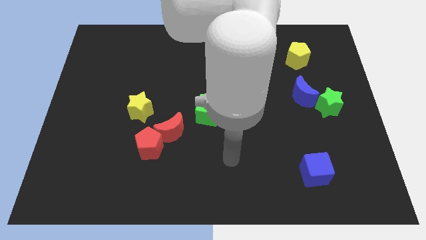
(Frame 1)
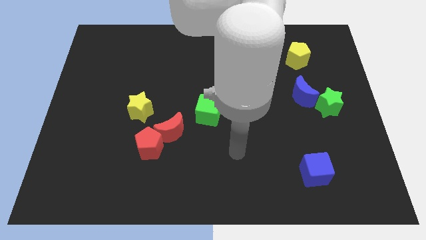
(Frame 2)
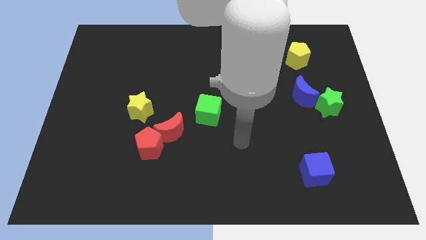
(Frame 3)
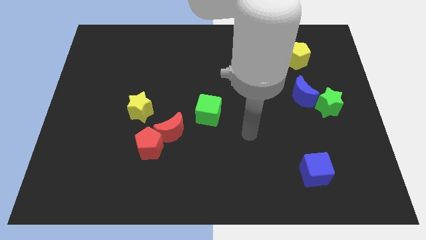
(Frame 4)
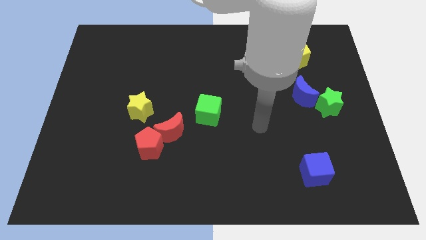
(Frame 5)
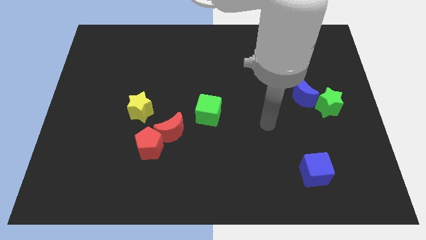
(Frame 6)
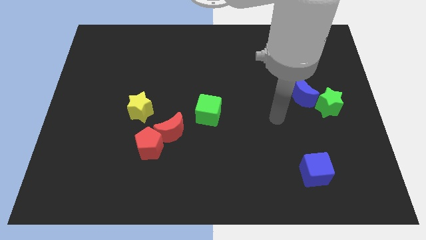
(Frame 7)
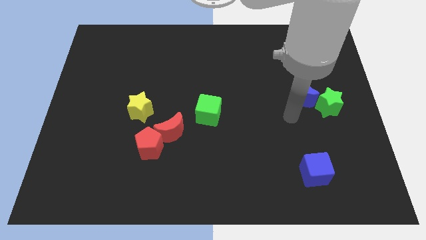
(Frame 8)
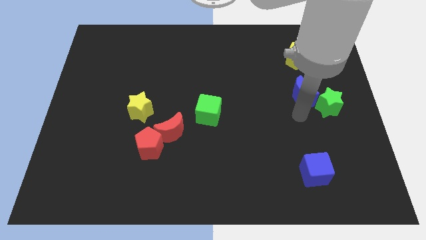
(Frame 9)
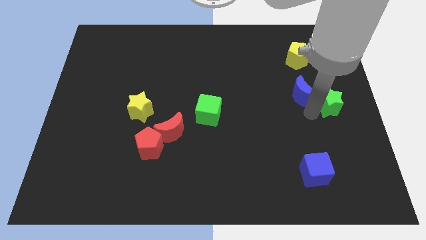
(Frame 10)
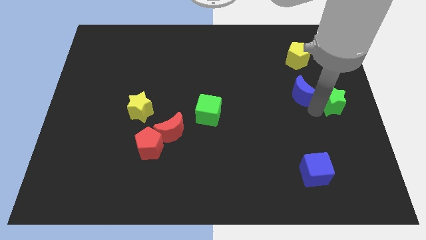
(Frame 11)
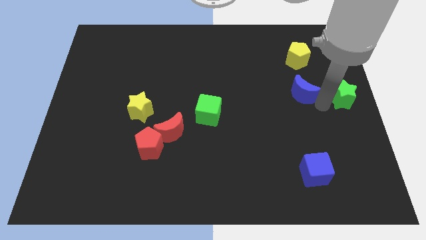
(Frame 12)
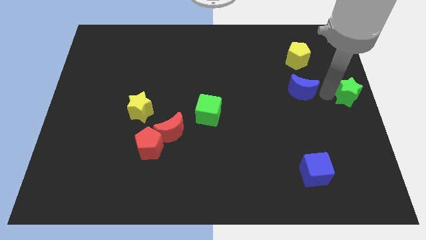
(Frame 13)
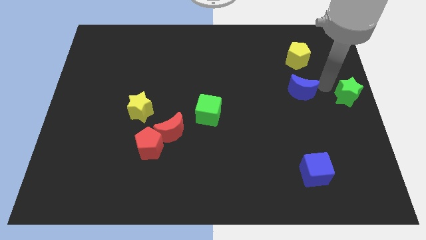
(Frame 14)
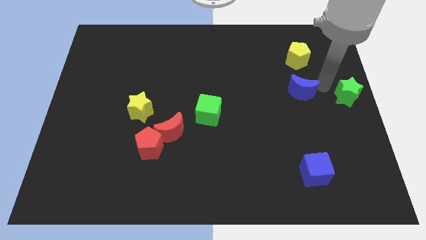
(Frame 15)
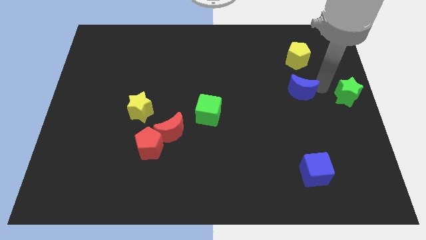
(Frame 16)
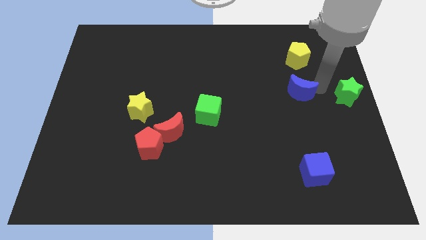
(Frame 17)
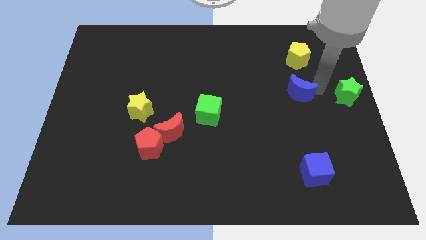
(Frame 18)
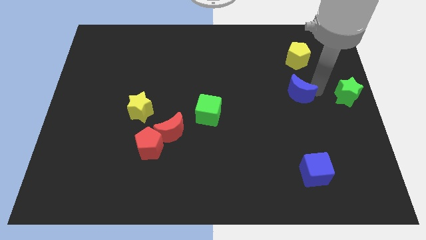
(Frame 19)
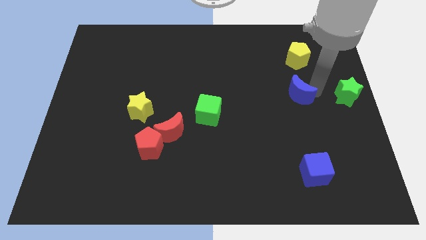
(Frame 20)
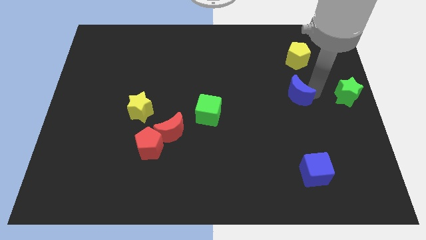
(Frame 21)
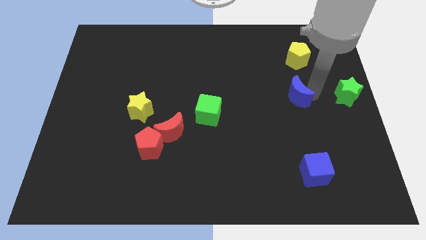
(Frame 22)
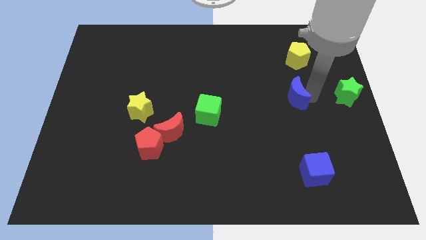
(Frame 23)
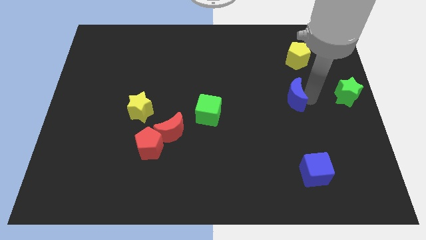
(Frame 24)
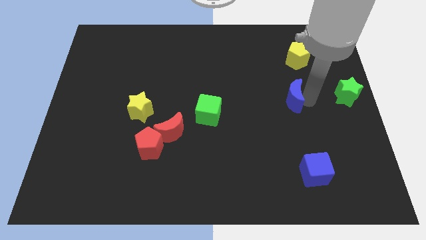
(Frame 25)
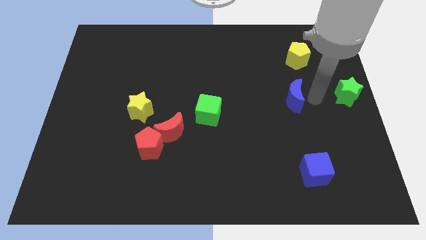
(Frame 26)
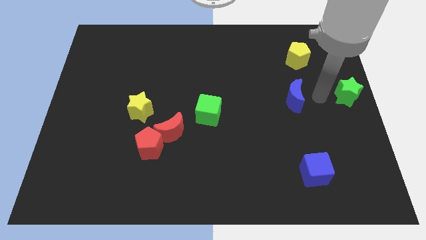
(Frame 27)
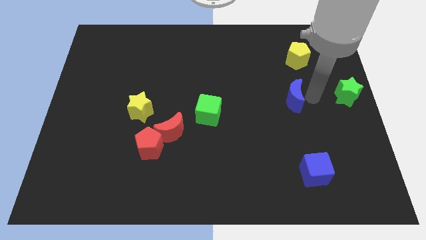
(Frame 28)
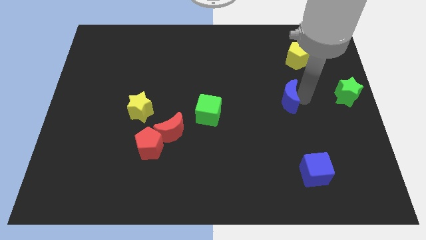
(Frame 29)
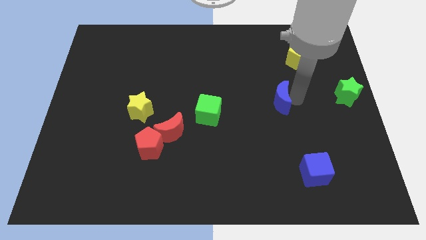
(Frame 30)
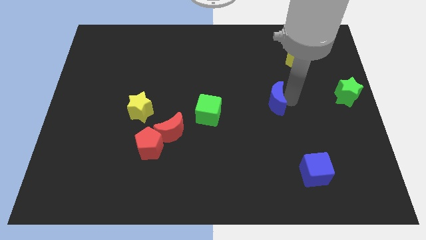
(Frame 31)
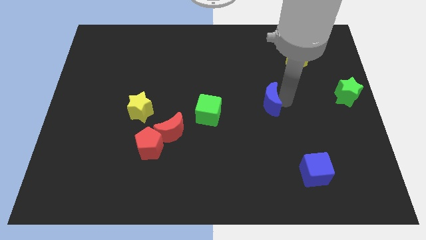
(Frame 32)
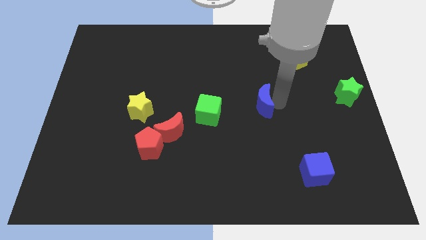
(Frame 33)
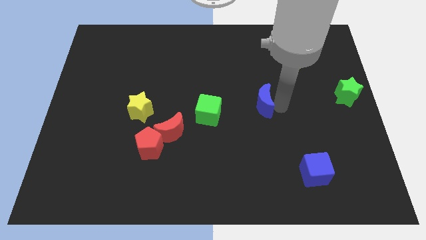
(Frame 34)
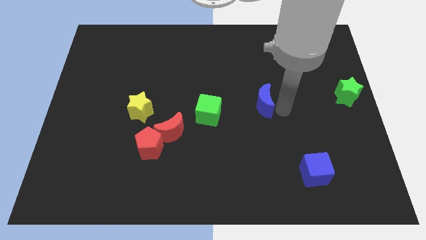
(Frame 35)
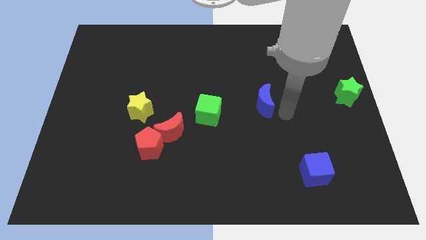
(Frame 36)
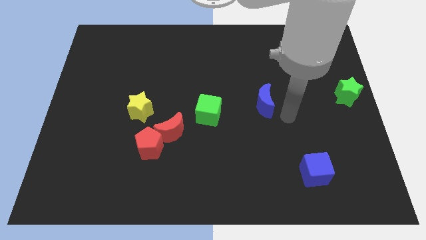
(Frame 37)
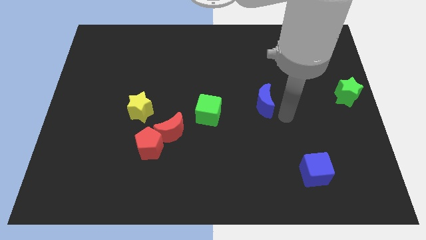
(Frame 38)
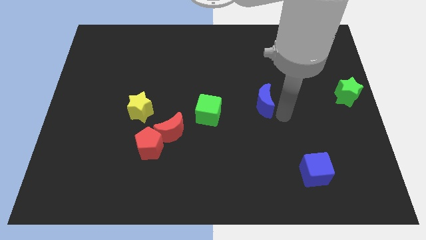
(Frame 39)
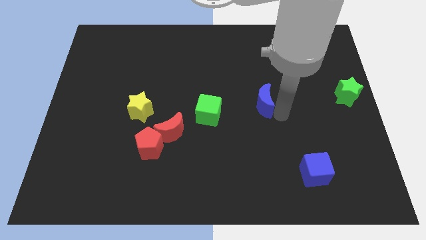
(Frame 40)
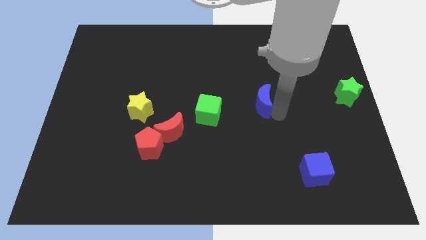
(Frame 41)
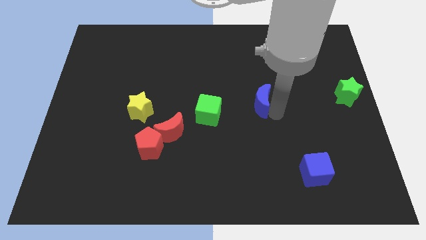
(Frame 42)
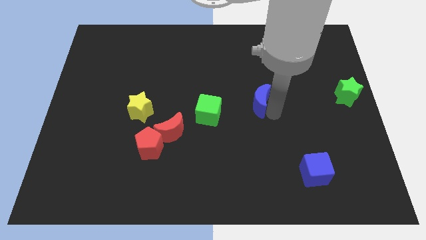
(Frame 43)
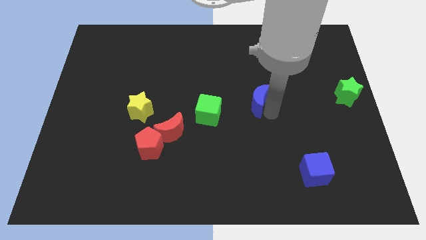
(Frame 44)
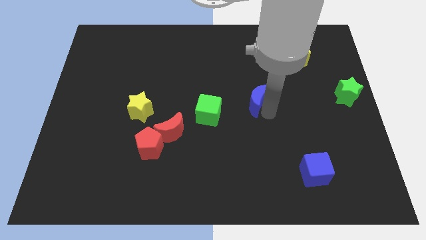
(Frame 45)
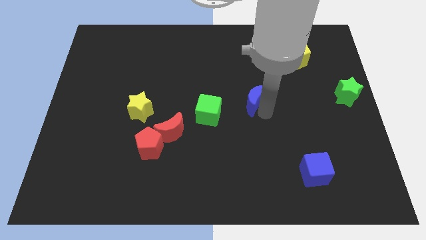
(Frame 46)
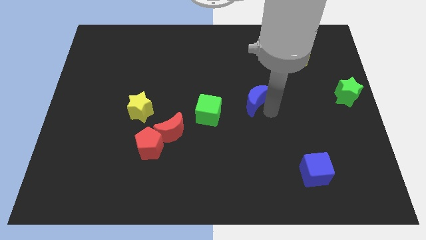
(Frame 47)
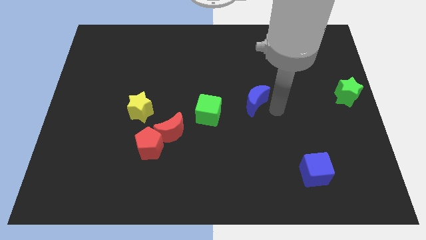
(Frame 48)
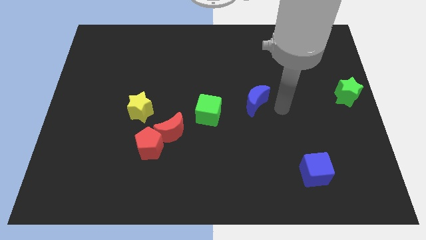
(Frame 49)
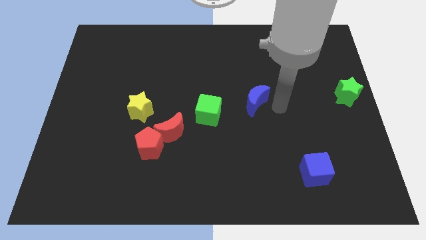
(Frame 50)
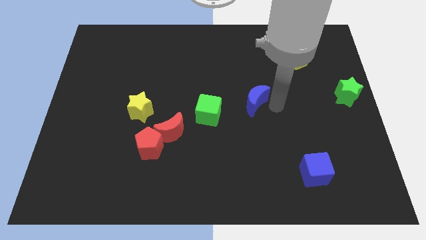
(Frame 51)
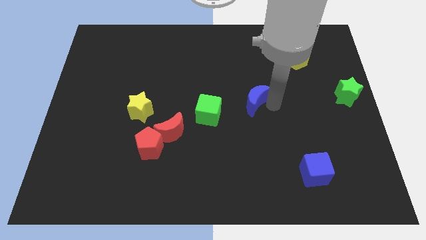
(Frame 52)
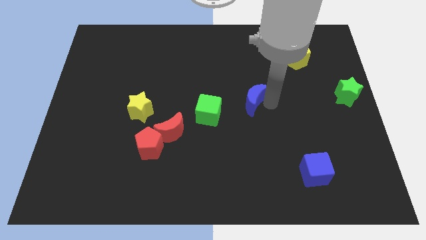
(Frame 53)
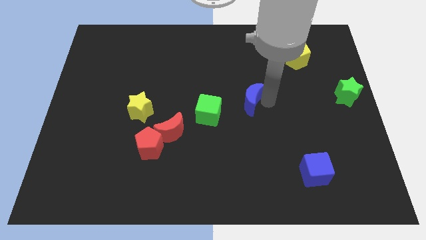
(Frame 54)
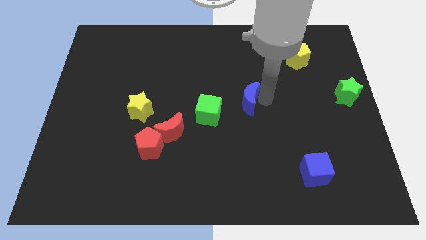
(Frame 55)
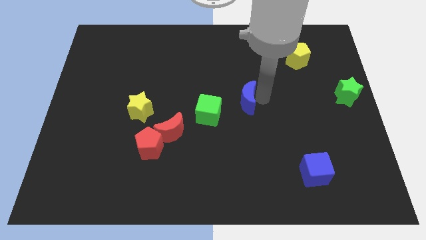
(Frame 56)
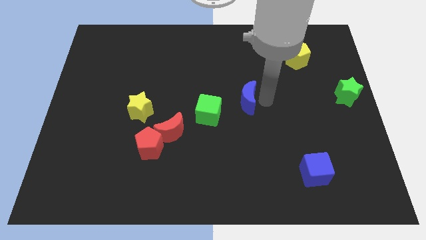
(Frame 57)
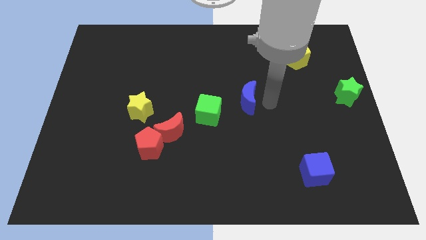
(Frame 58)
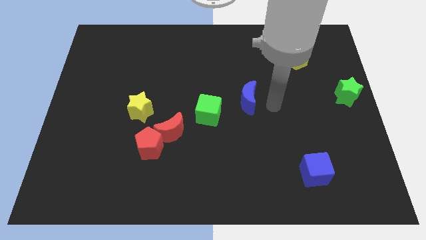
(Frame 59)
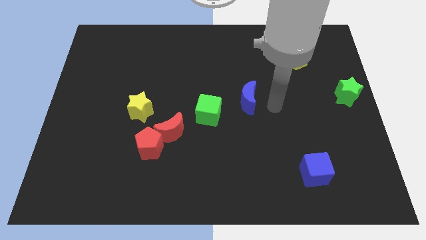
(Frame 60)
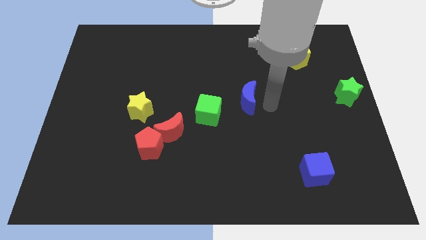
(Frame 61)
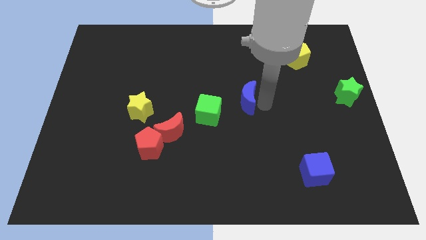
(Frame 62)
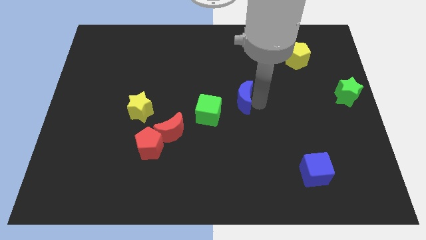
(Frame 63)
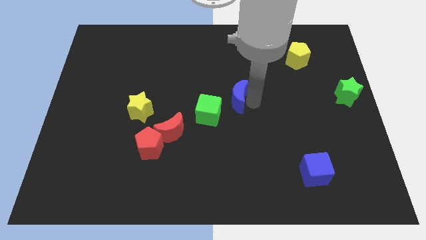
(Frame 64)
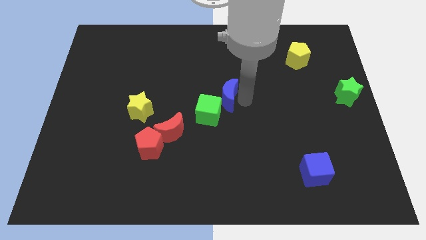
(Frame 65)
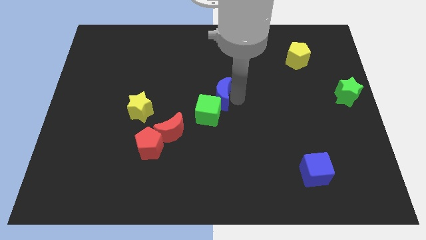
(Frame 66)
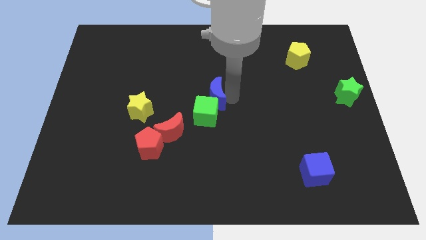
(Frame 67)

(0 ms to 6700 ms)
move the blue moon left

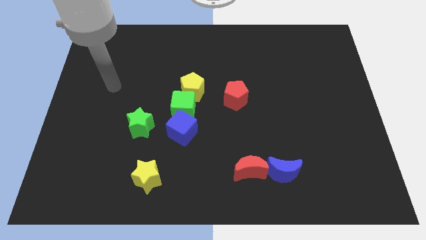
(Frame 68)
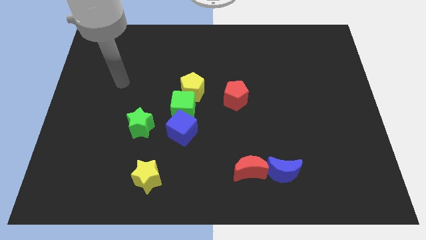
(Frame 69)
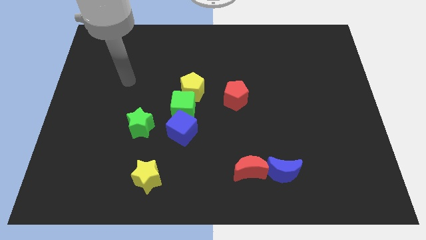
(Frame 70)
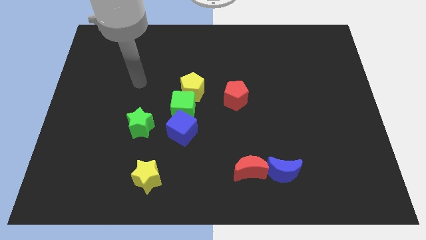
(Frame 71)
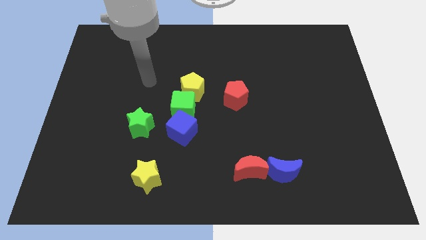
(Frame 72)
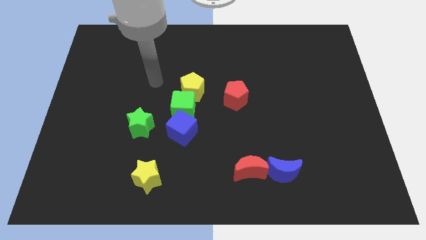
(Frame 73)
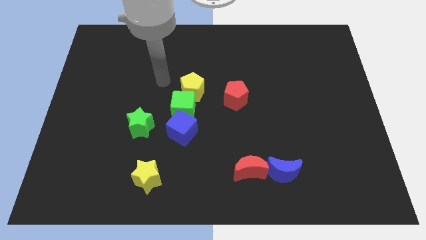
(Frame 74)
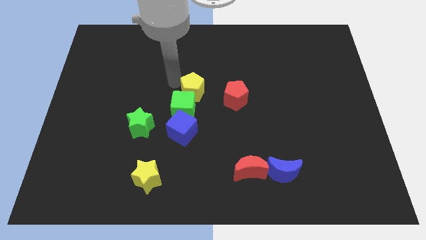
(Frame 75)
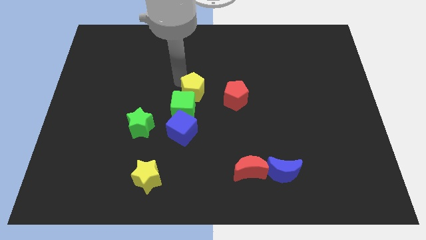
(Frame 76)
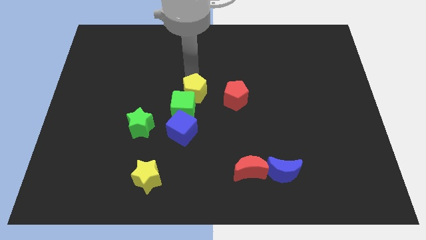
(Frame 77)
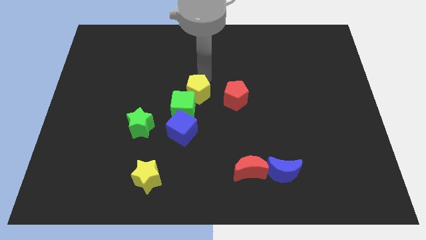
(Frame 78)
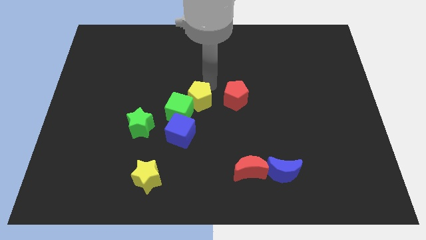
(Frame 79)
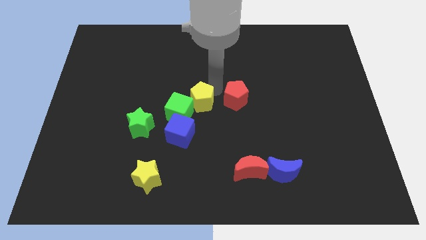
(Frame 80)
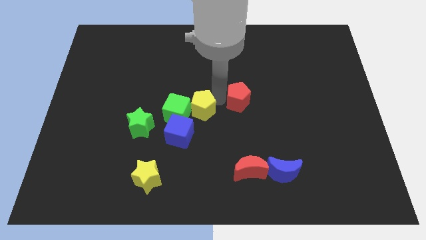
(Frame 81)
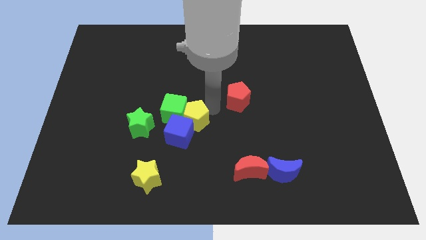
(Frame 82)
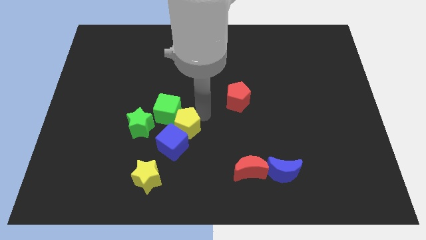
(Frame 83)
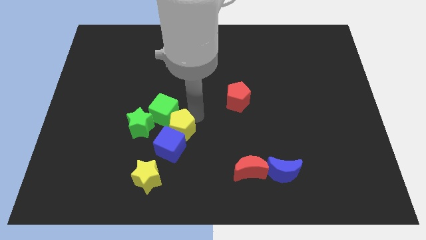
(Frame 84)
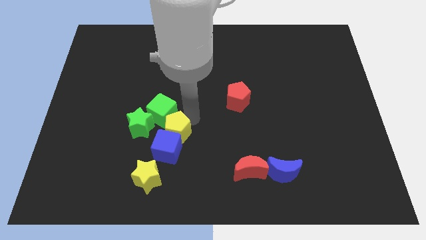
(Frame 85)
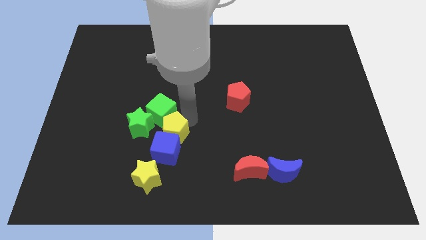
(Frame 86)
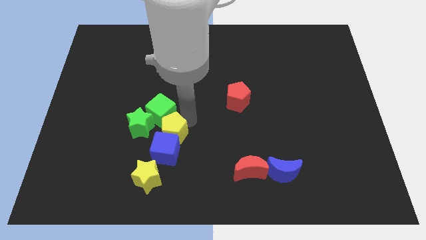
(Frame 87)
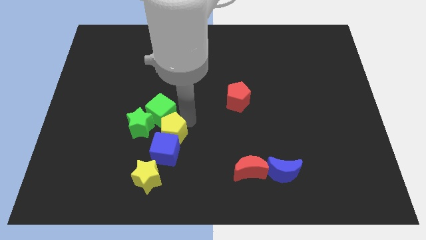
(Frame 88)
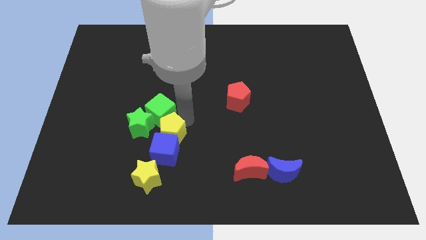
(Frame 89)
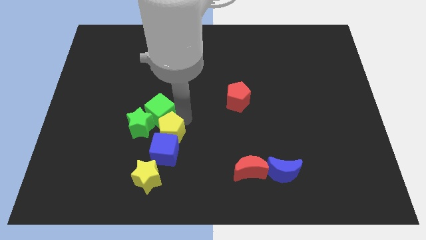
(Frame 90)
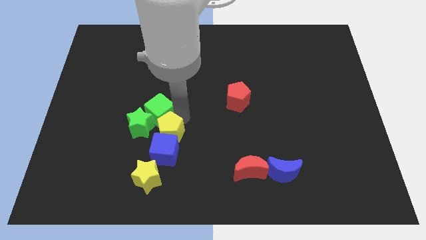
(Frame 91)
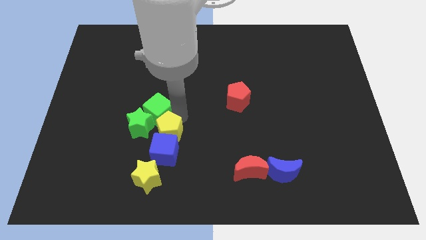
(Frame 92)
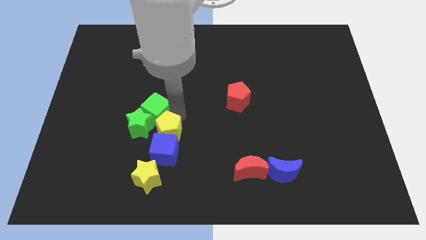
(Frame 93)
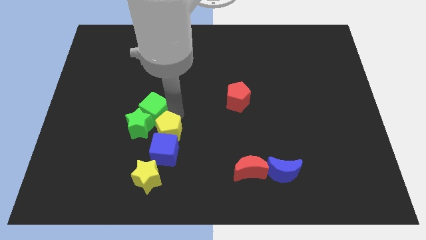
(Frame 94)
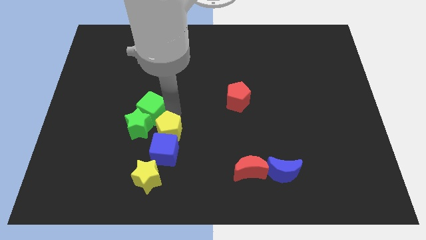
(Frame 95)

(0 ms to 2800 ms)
slightly push the green cube left
